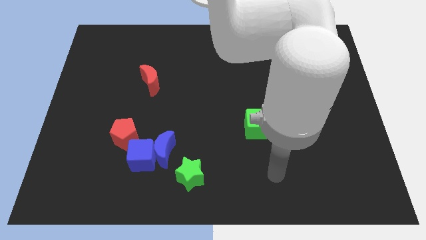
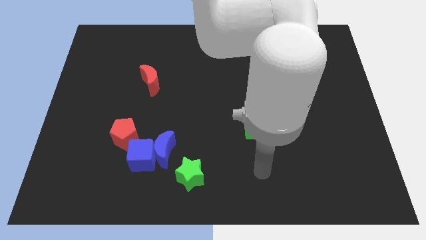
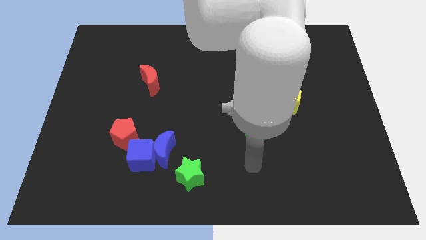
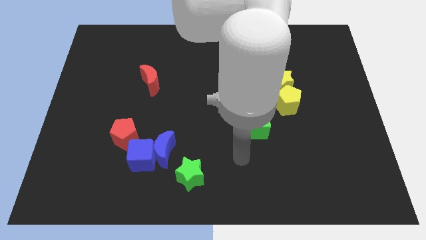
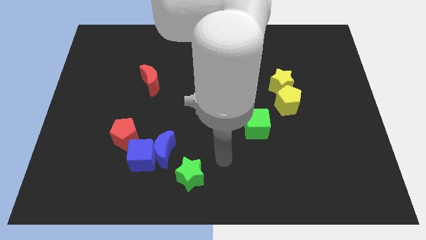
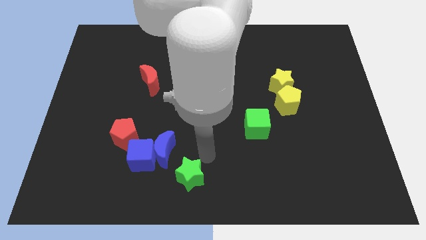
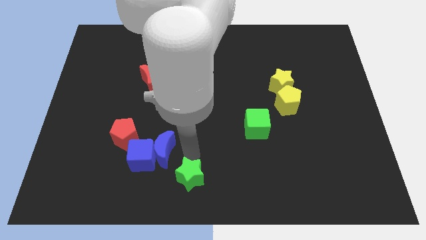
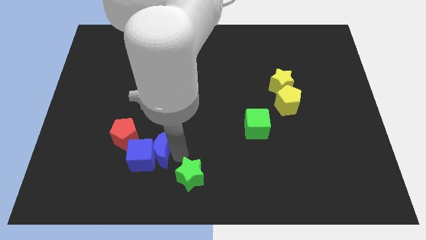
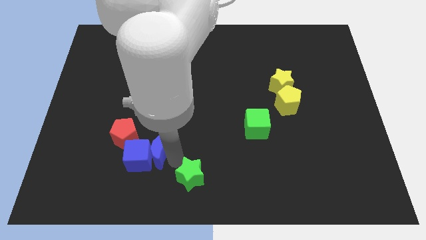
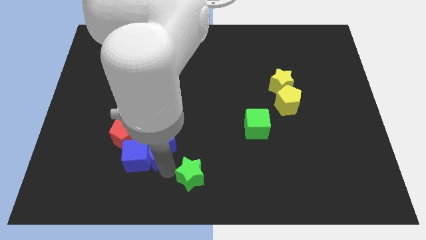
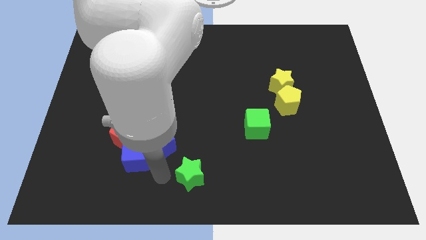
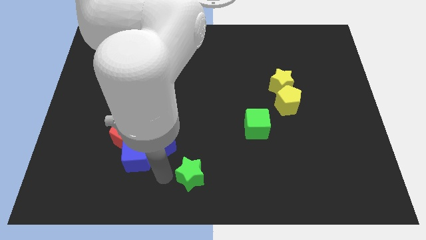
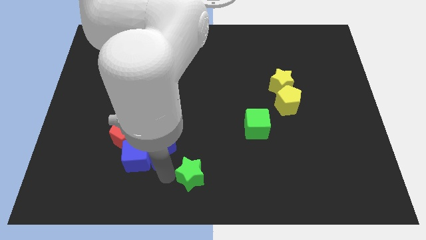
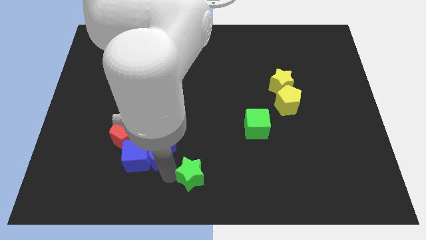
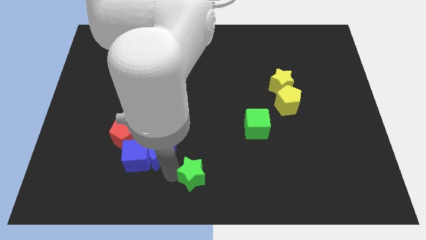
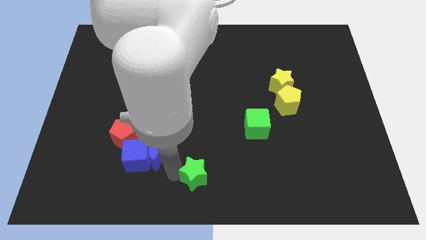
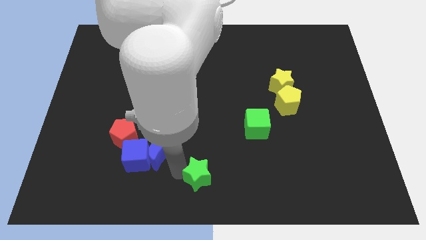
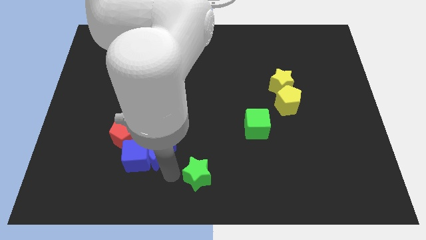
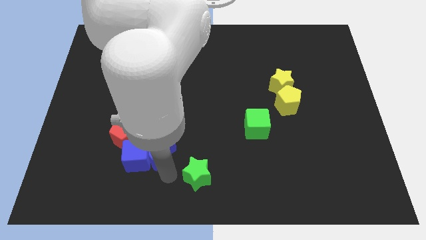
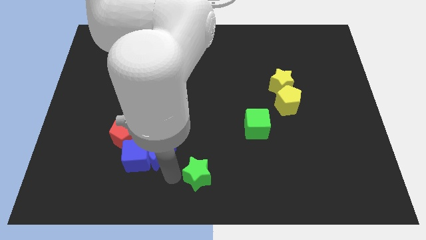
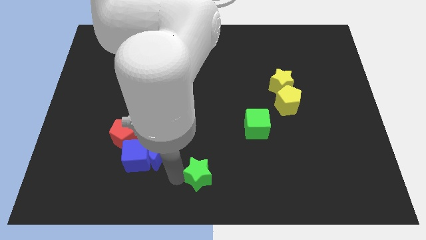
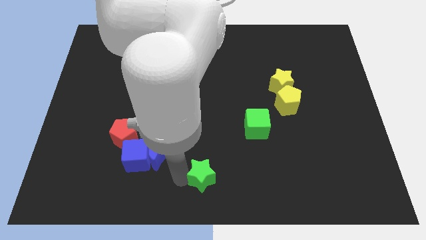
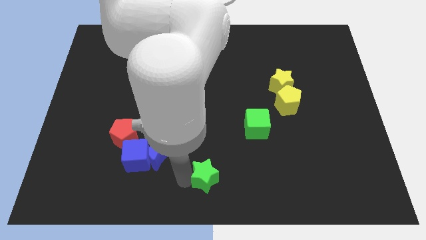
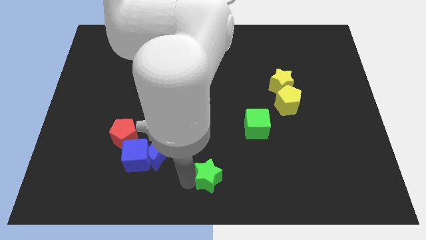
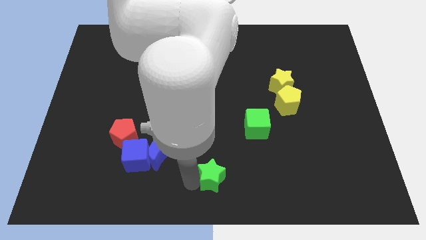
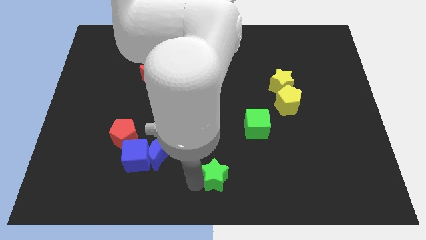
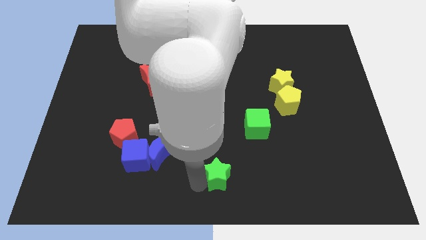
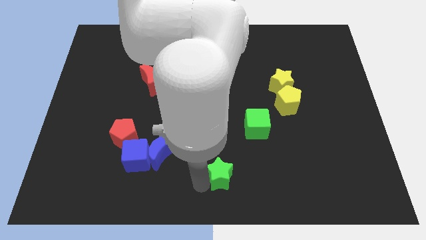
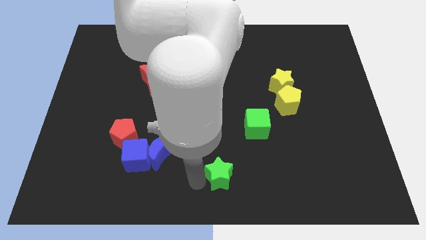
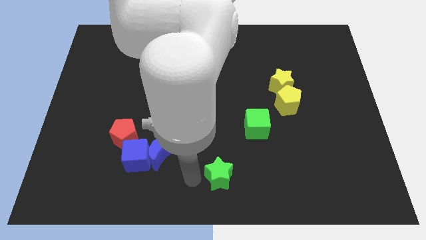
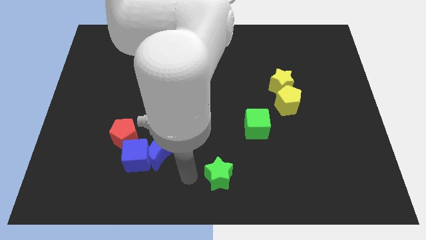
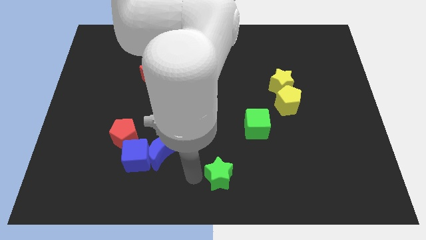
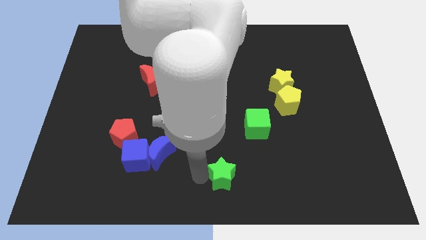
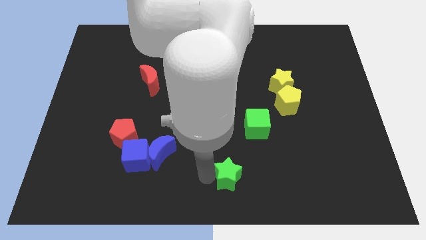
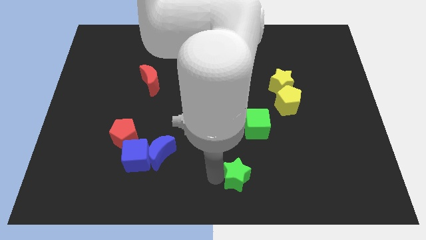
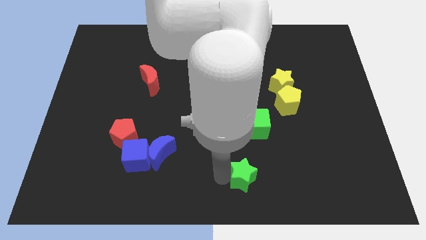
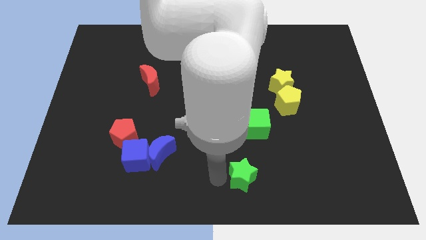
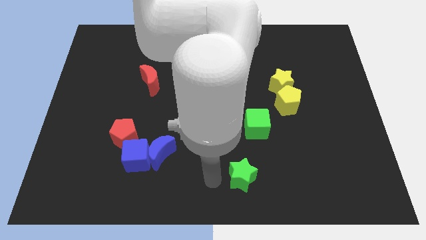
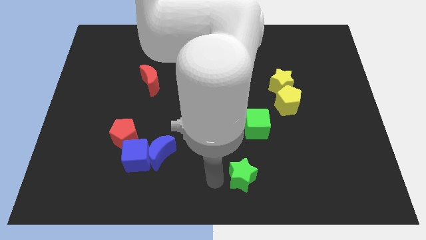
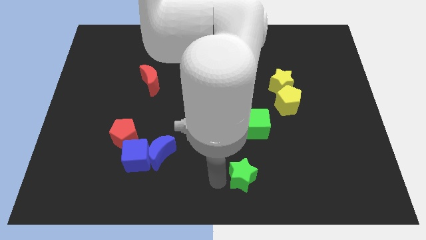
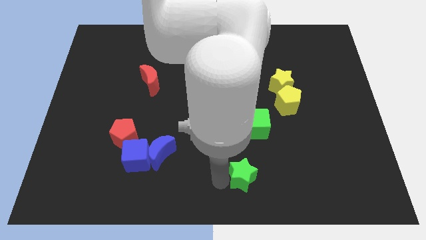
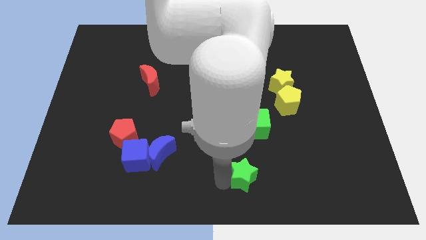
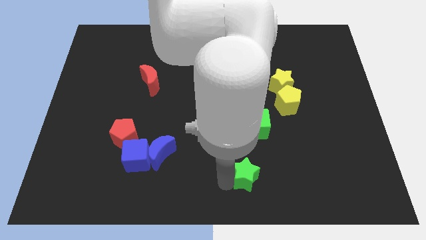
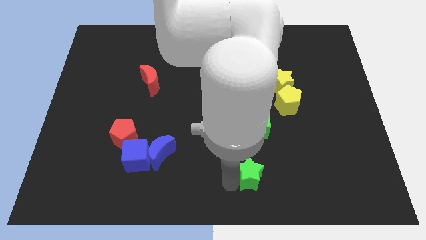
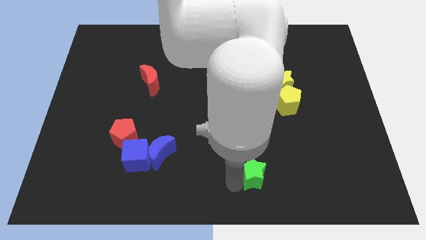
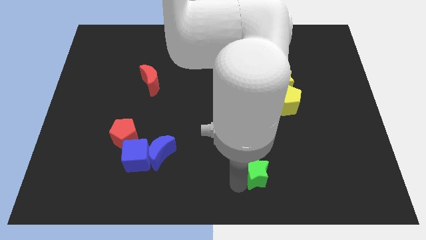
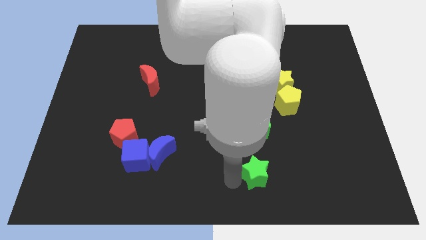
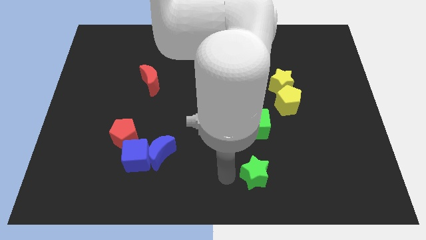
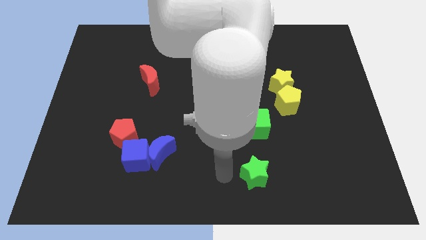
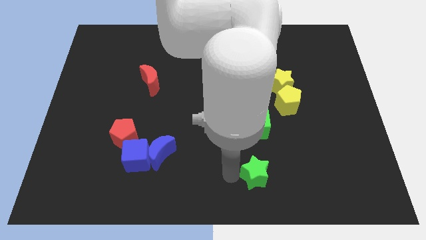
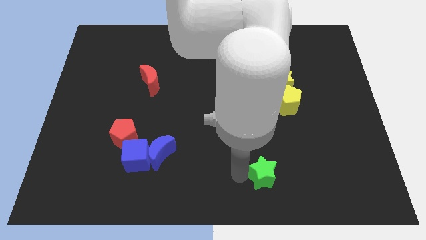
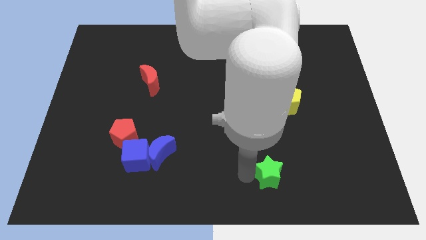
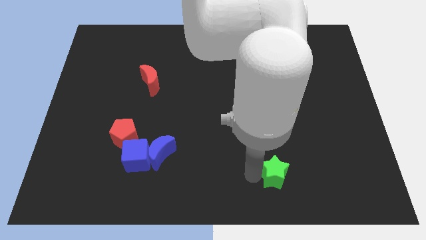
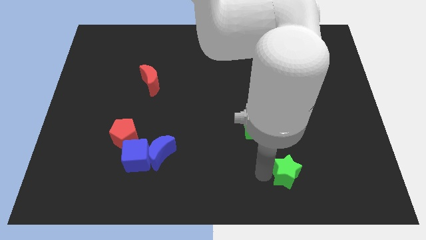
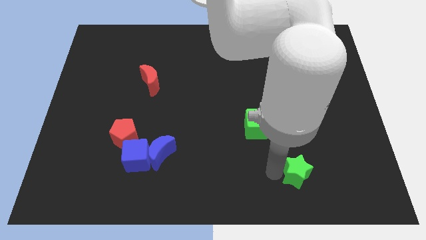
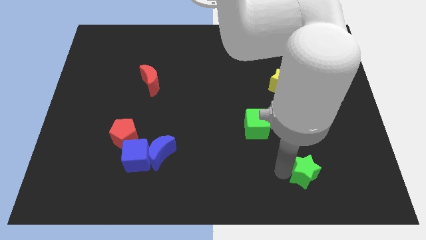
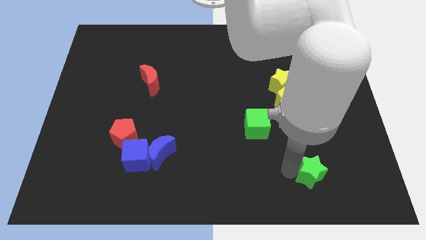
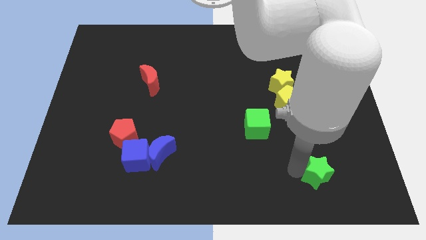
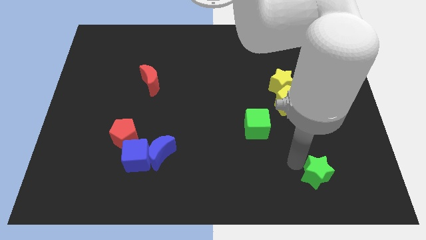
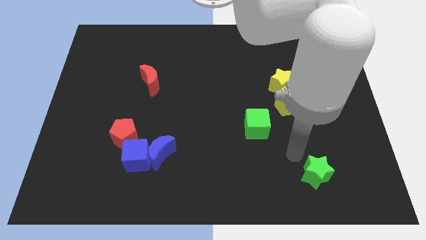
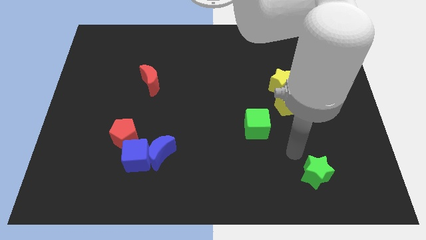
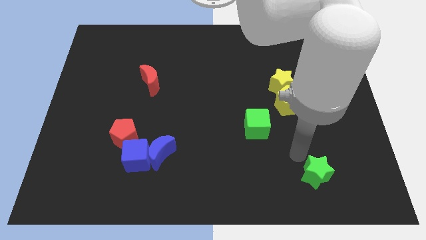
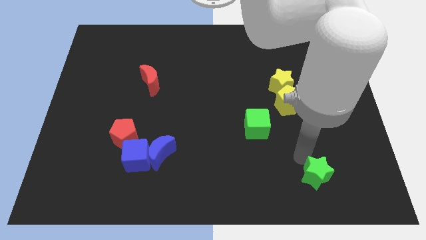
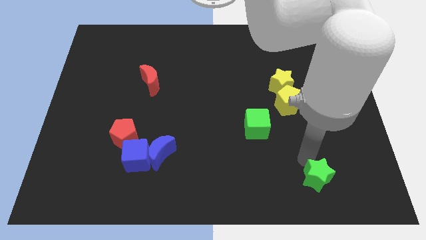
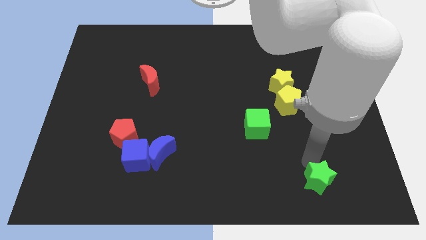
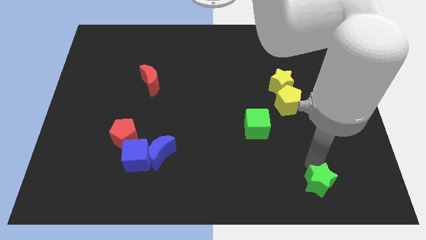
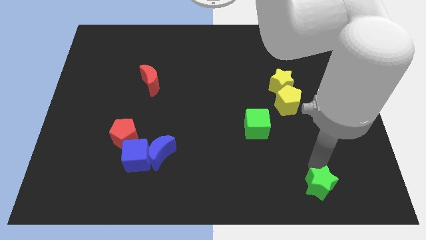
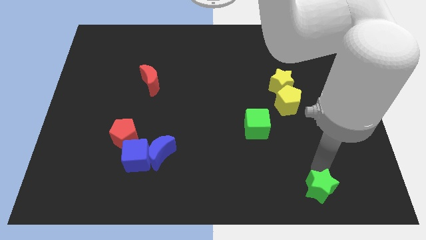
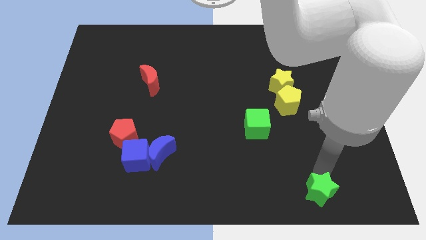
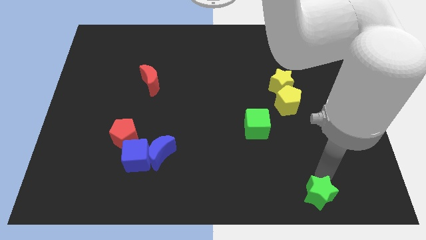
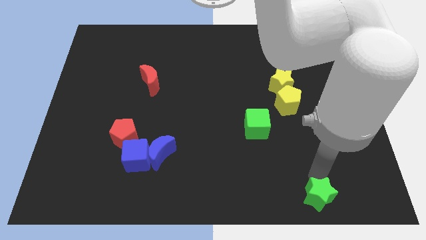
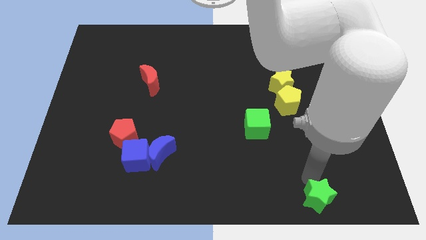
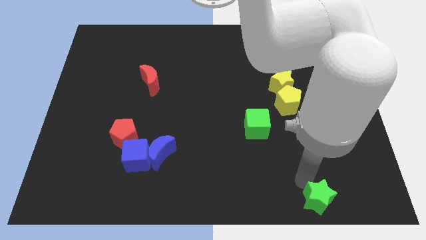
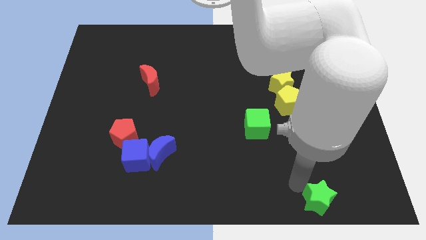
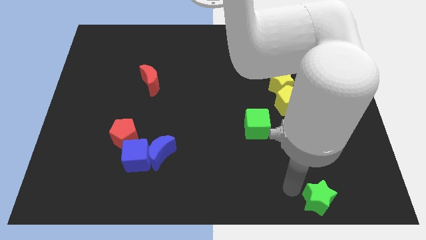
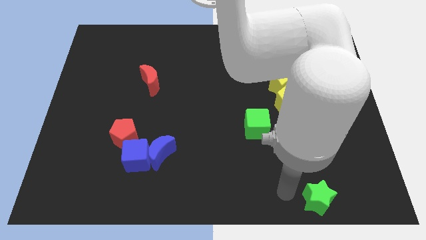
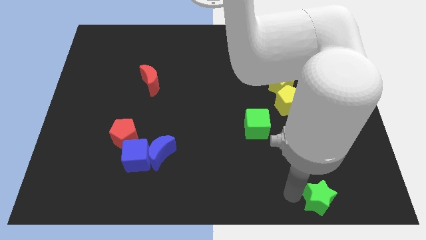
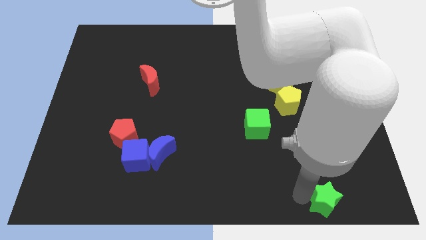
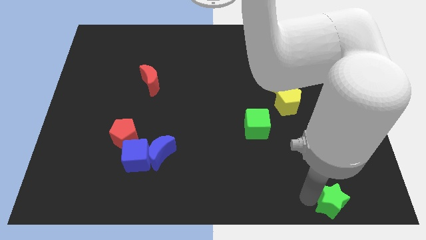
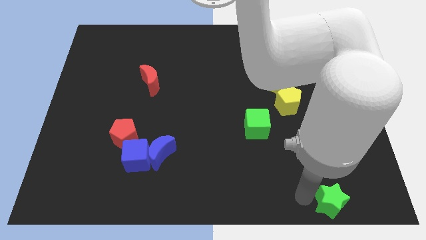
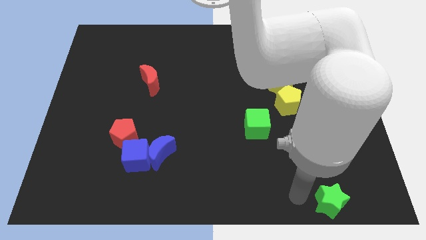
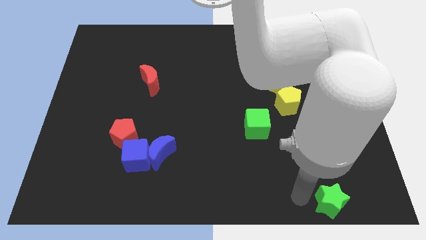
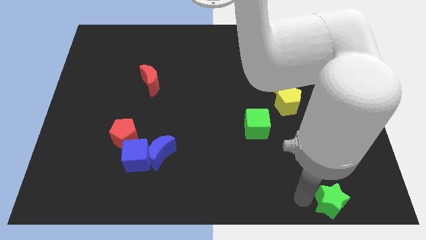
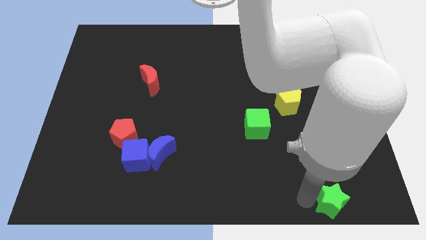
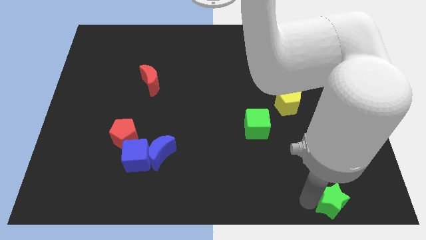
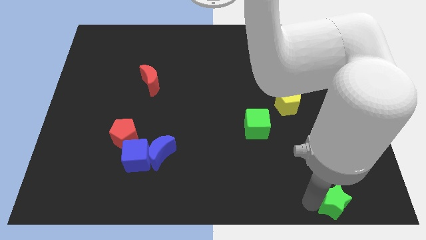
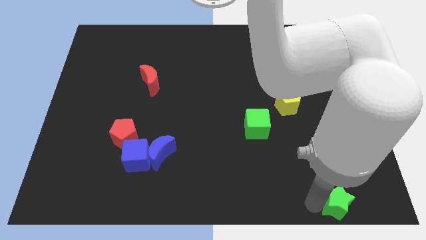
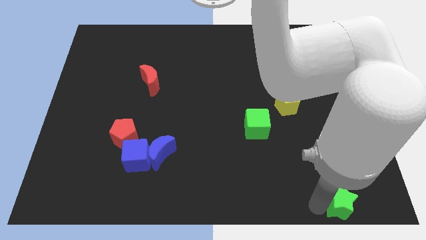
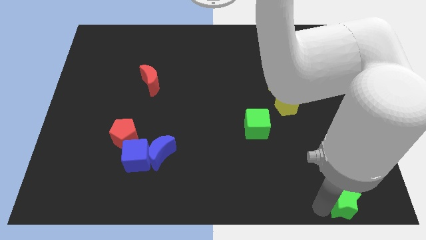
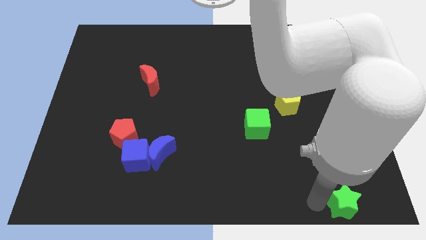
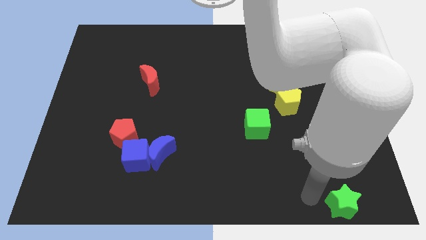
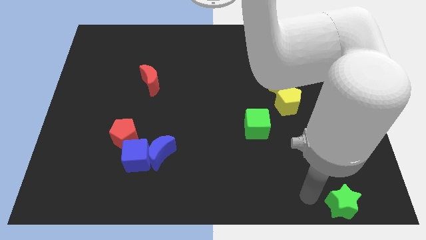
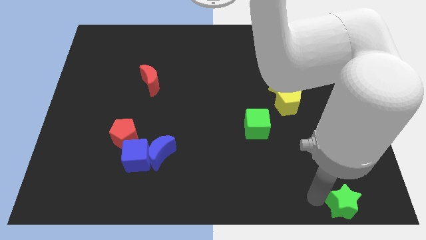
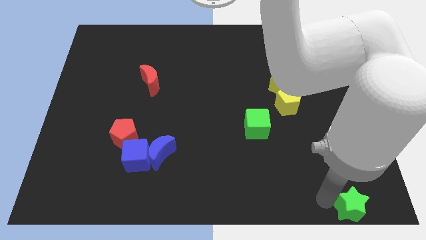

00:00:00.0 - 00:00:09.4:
move the green star to the bottom right corner
